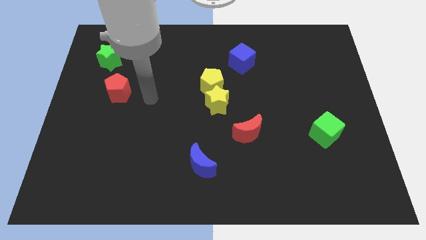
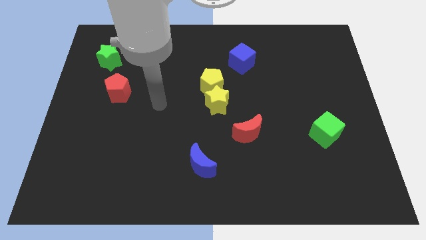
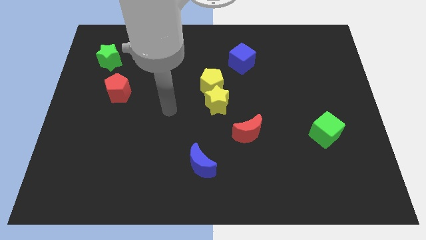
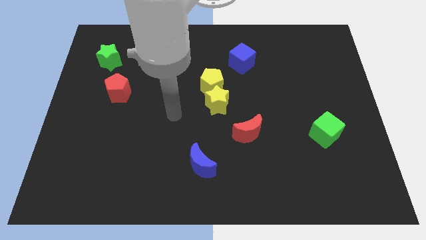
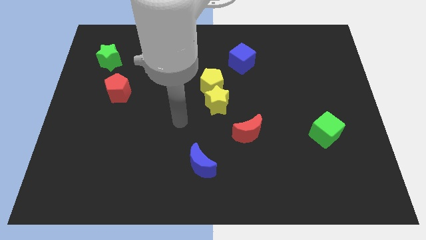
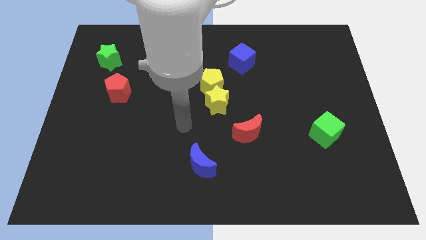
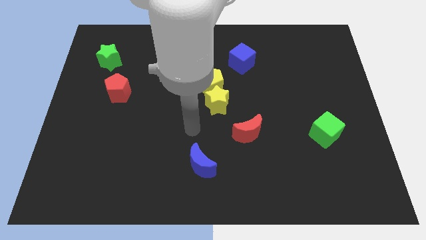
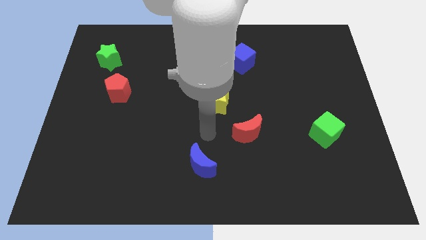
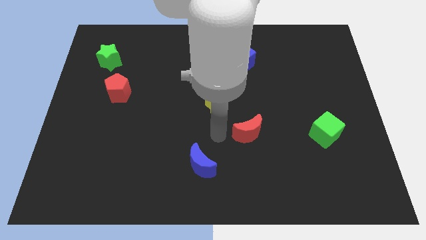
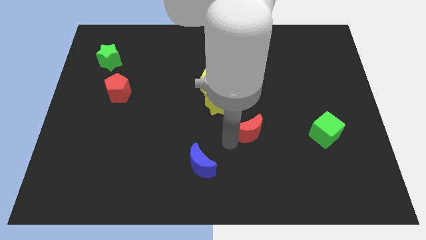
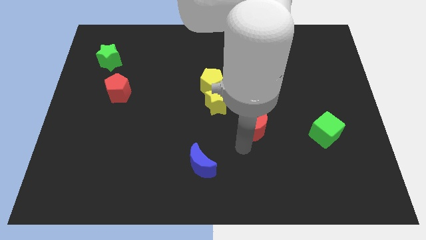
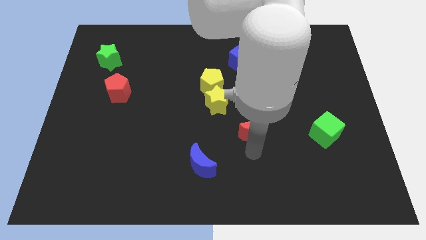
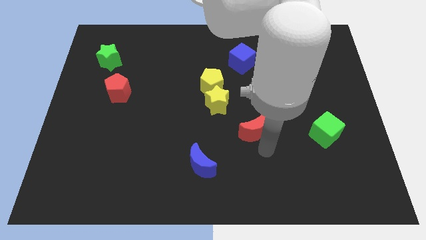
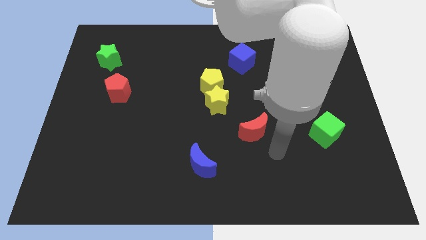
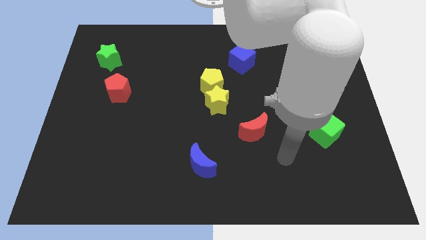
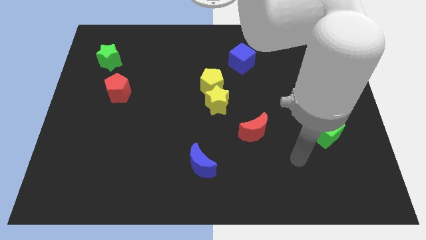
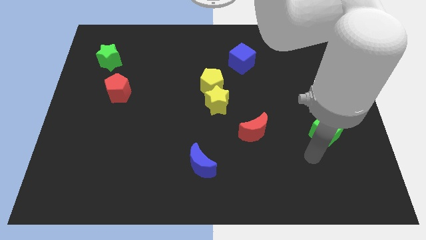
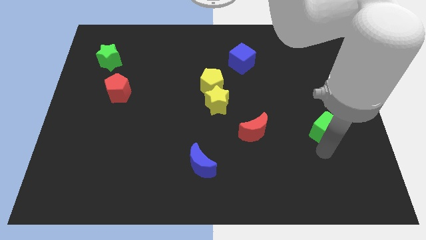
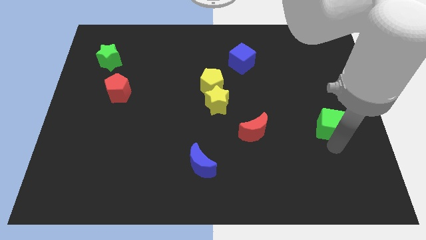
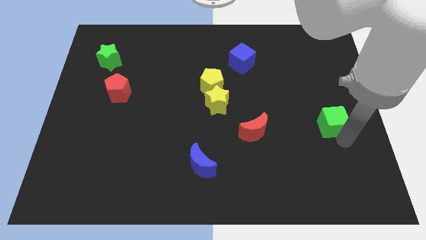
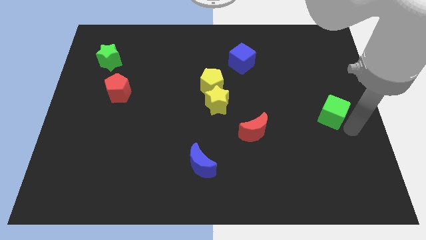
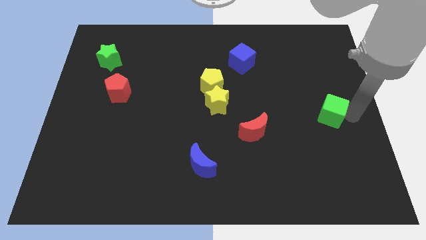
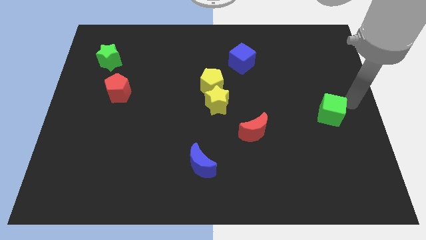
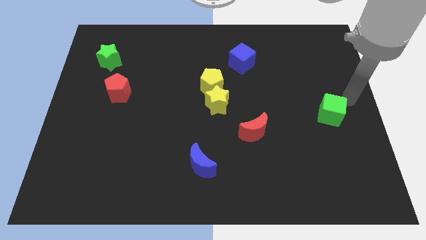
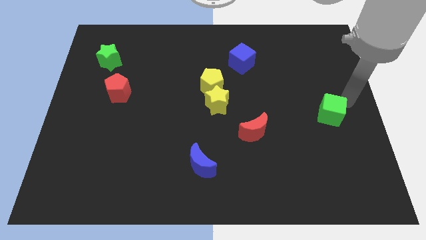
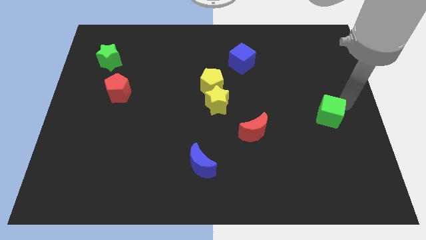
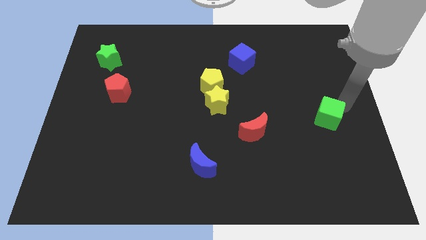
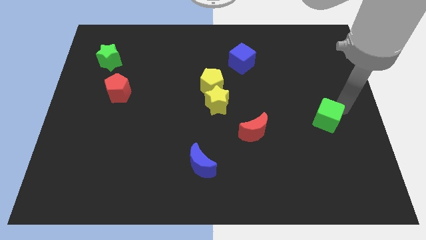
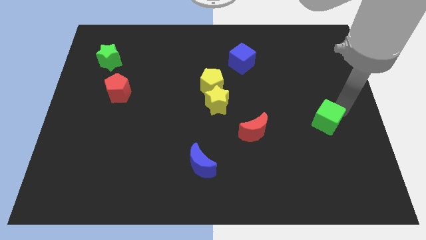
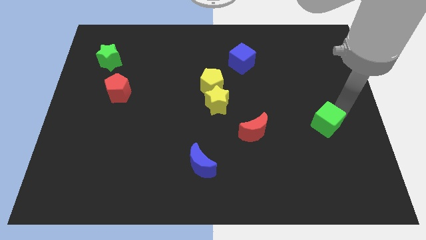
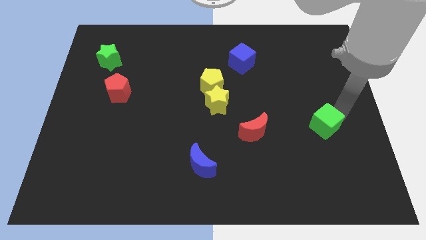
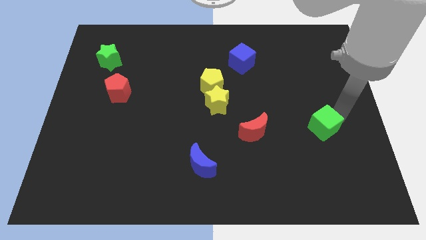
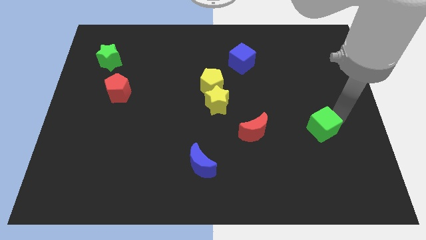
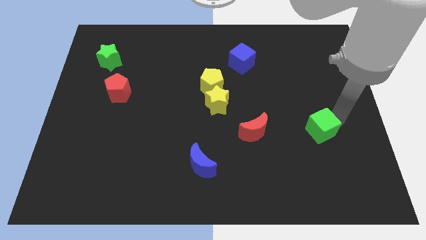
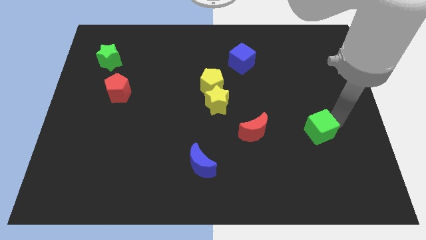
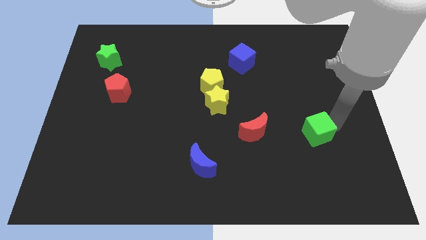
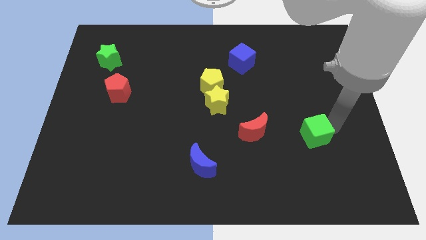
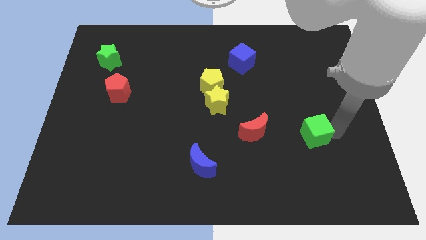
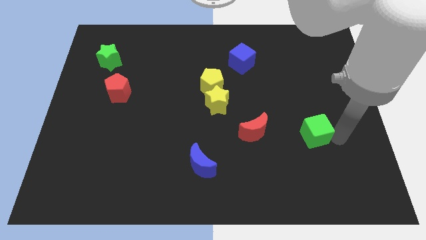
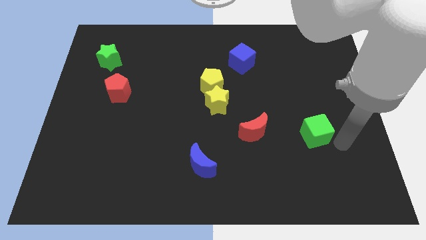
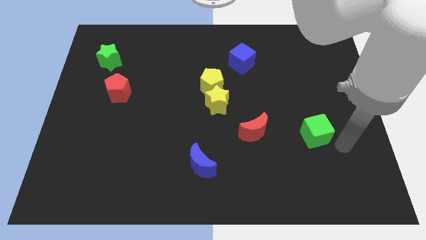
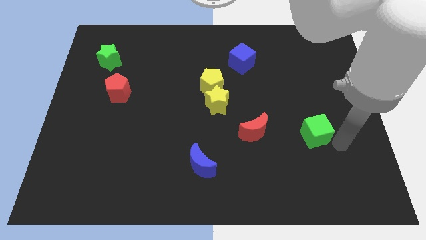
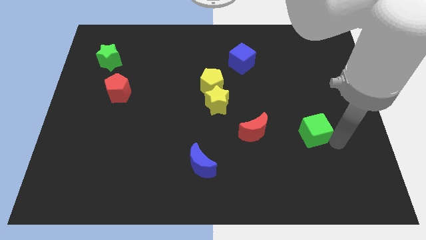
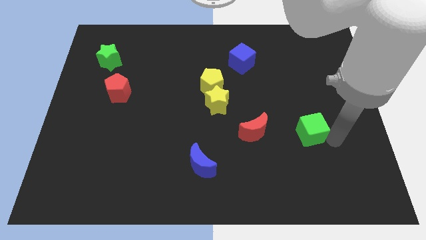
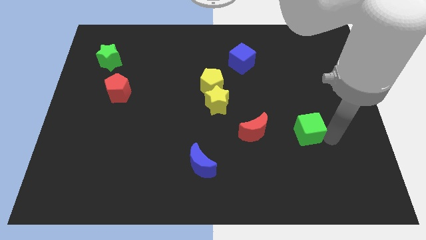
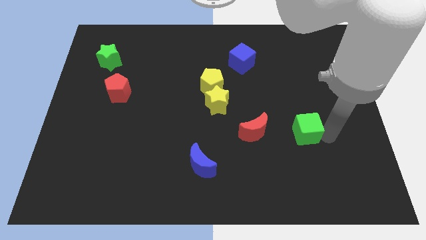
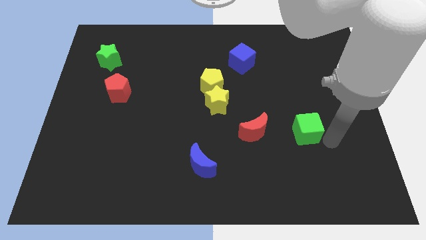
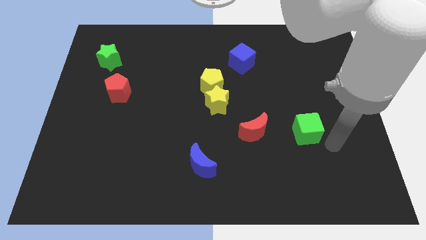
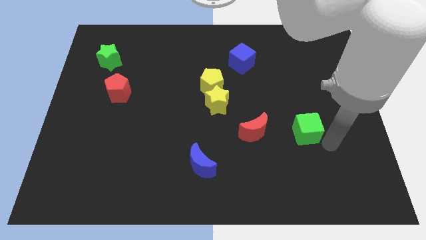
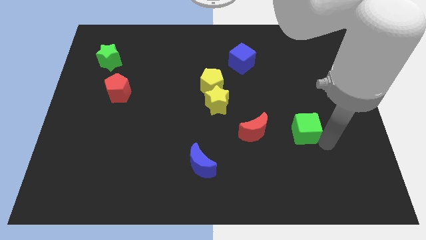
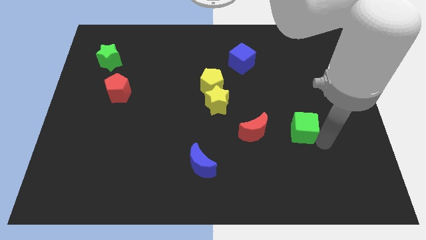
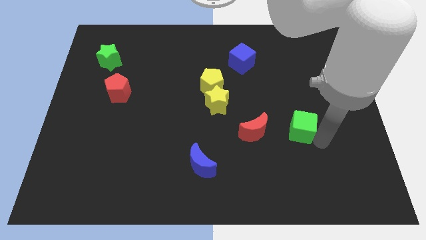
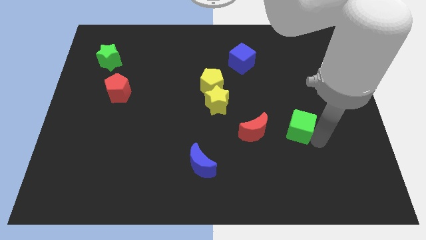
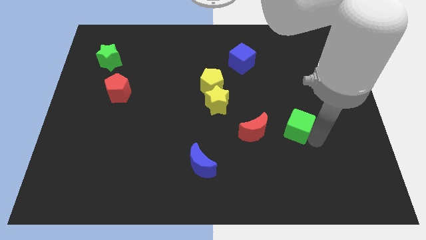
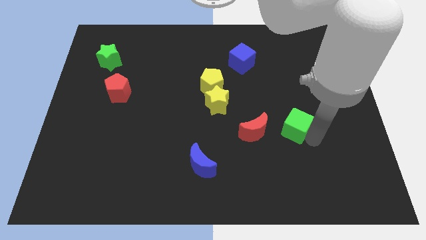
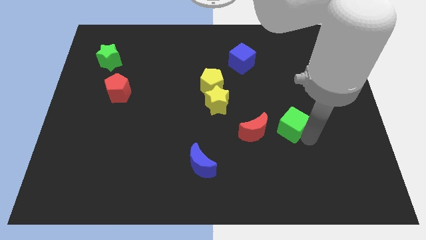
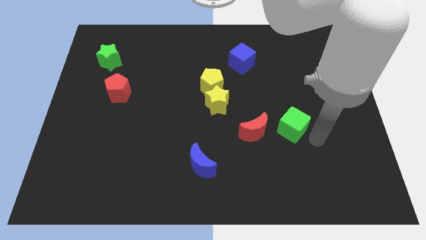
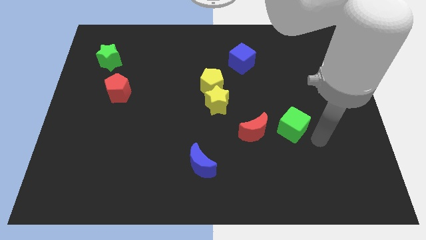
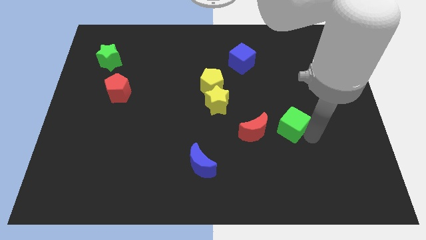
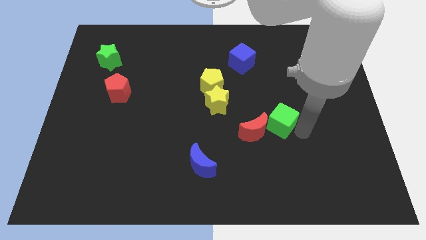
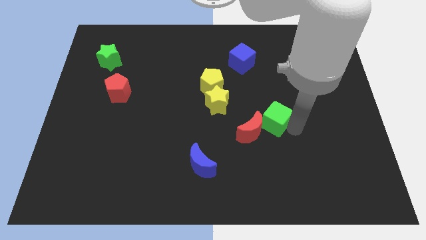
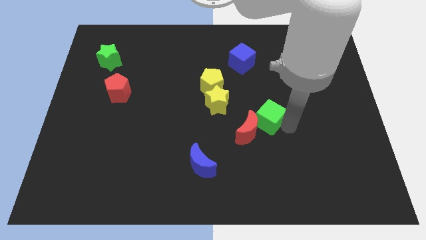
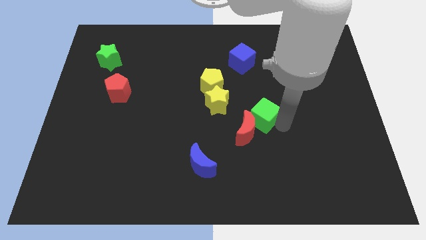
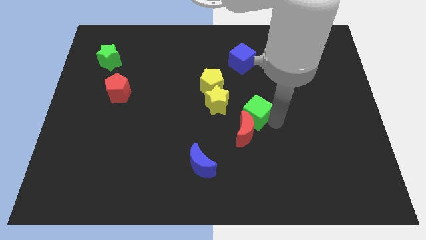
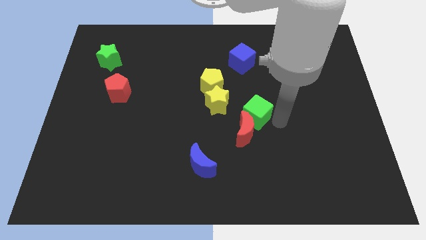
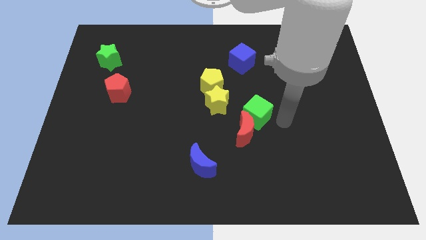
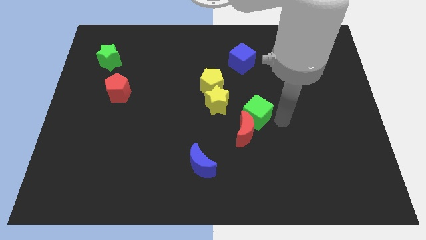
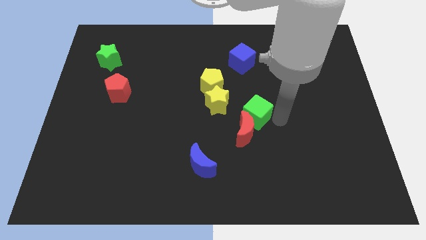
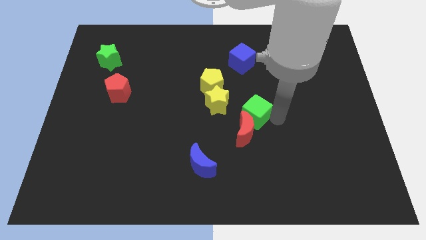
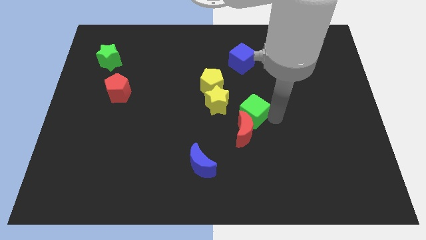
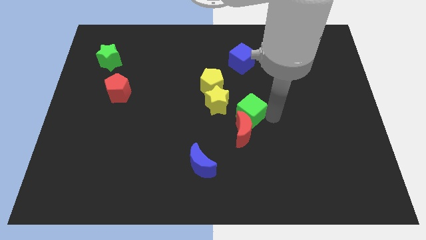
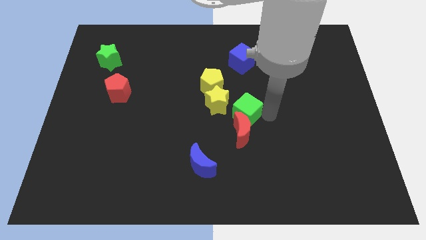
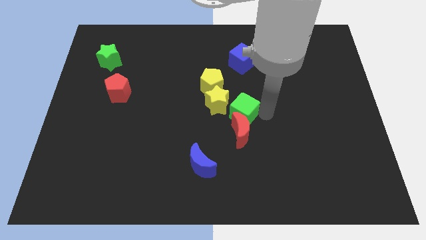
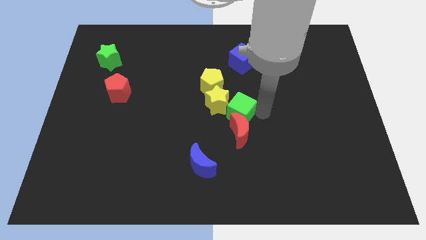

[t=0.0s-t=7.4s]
put the green cube close to the yellow star
